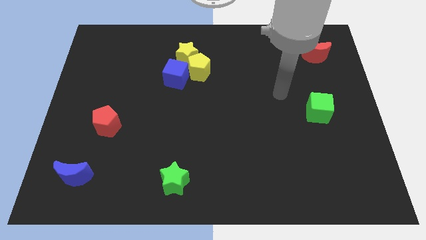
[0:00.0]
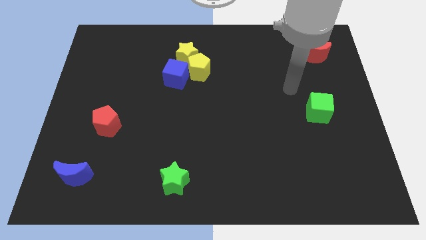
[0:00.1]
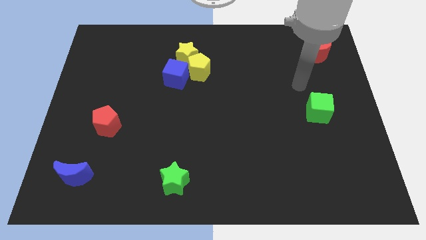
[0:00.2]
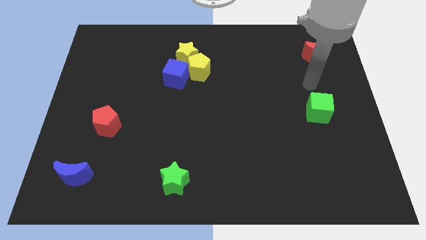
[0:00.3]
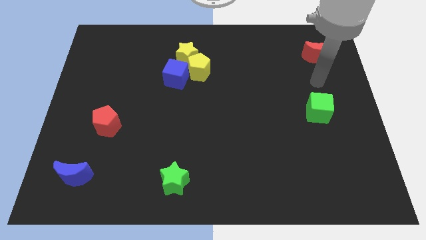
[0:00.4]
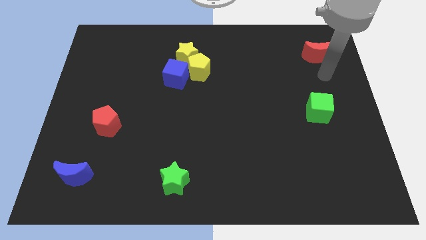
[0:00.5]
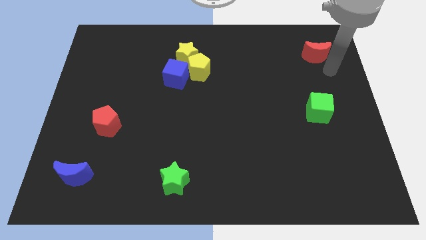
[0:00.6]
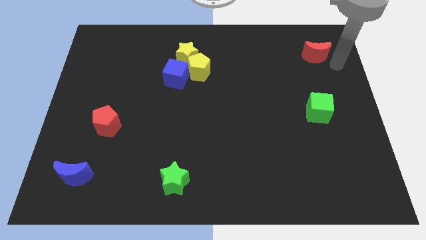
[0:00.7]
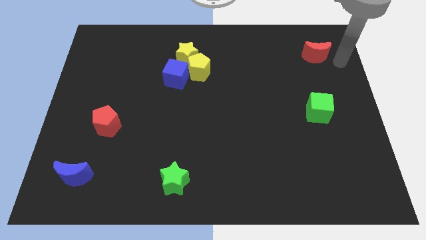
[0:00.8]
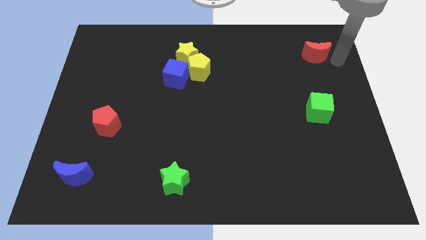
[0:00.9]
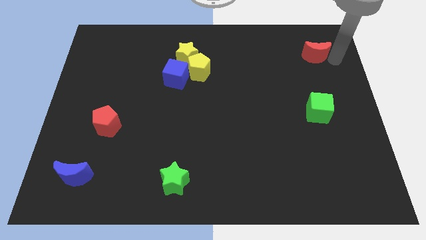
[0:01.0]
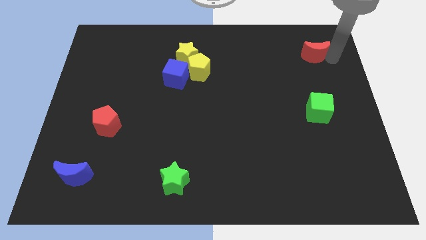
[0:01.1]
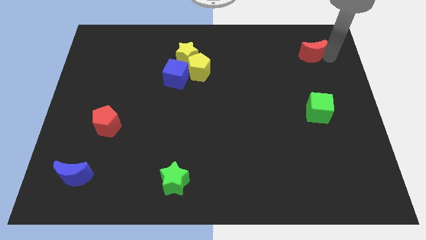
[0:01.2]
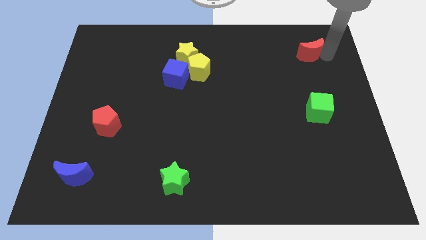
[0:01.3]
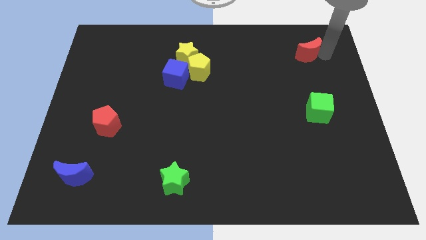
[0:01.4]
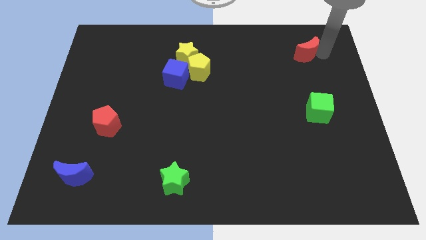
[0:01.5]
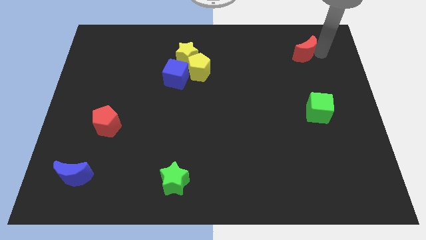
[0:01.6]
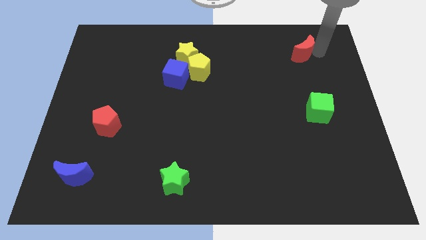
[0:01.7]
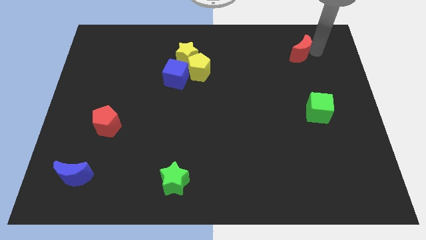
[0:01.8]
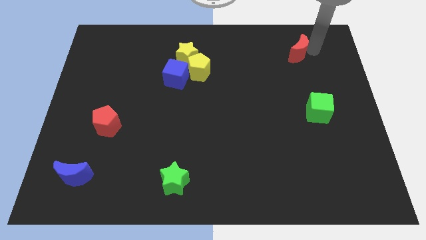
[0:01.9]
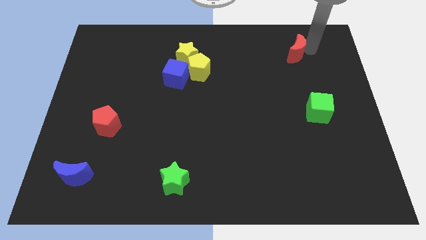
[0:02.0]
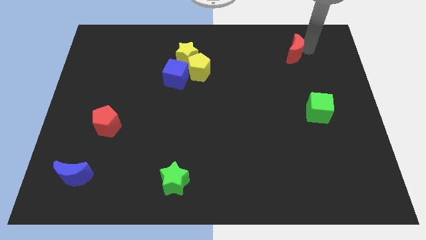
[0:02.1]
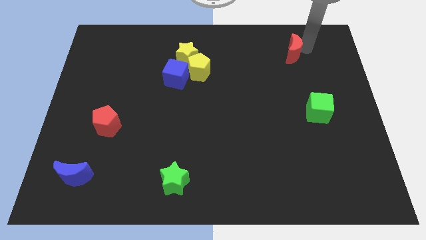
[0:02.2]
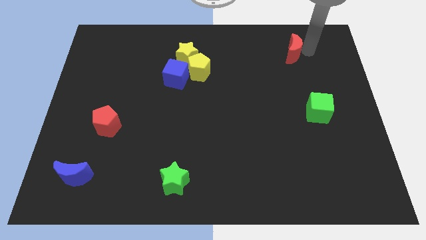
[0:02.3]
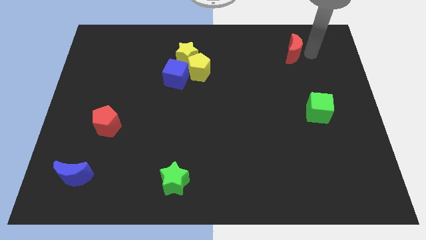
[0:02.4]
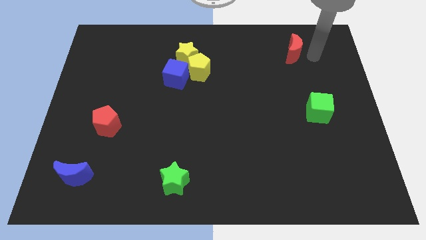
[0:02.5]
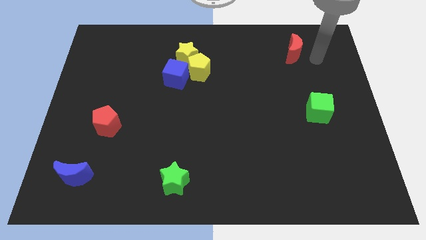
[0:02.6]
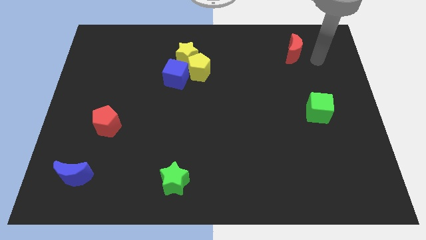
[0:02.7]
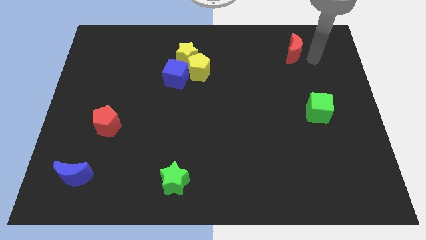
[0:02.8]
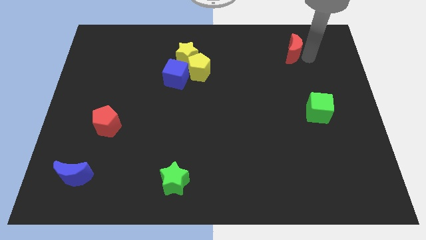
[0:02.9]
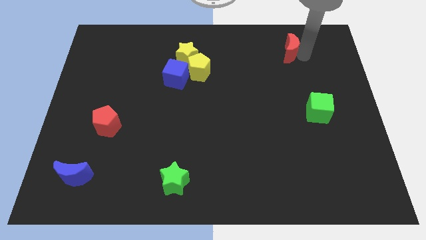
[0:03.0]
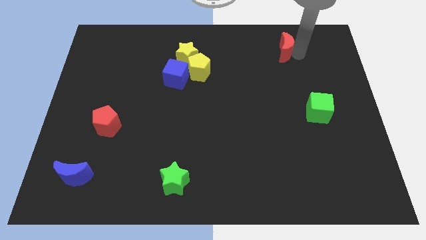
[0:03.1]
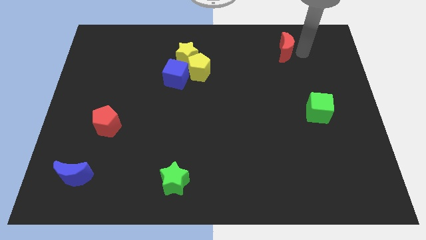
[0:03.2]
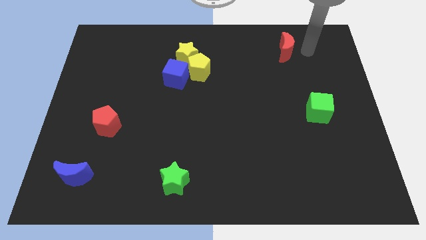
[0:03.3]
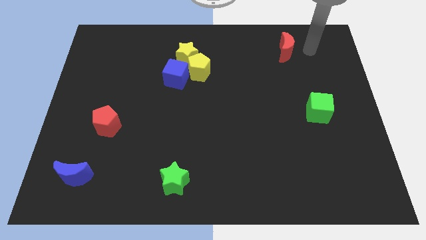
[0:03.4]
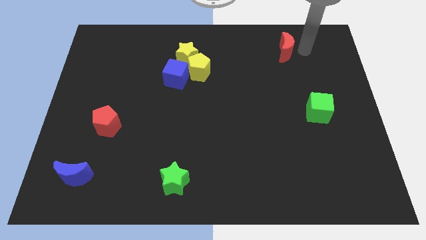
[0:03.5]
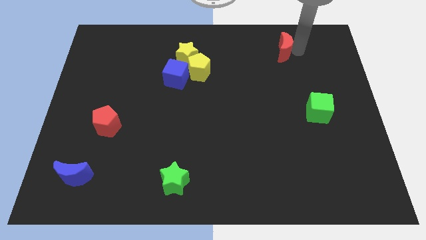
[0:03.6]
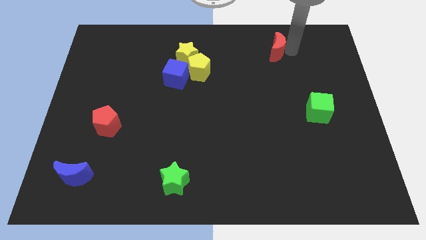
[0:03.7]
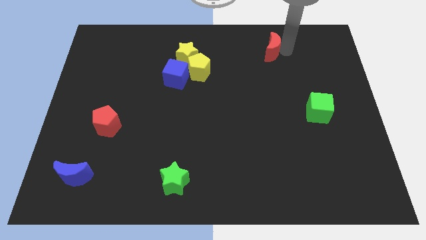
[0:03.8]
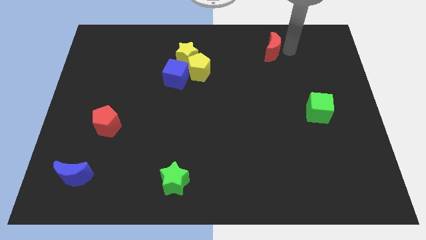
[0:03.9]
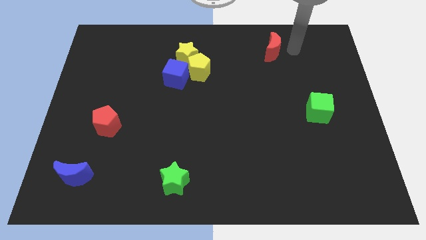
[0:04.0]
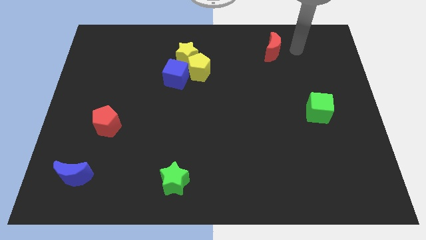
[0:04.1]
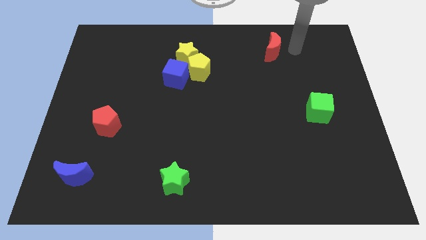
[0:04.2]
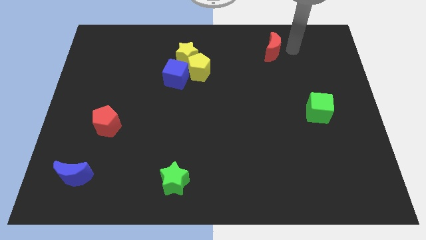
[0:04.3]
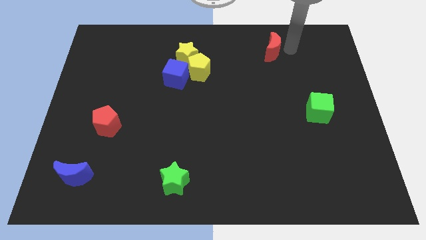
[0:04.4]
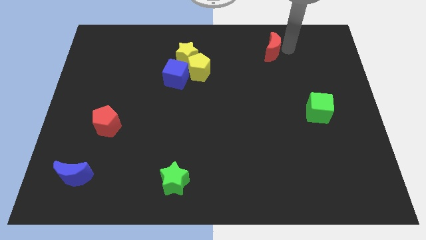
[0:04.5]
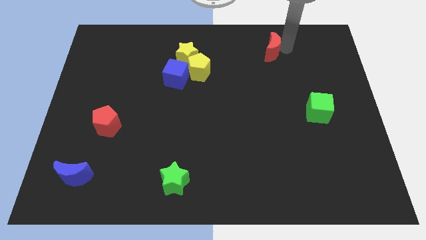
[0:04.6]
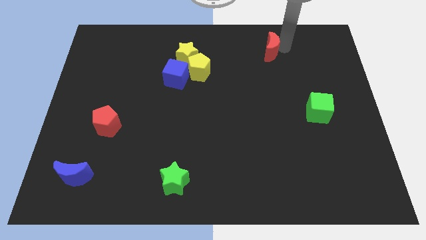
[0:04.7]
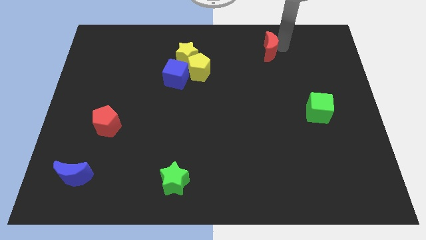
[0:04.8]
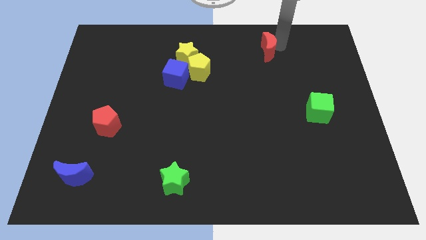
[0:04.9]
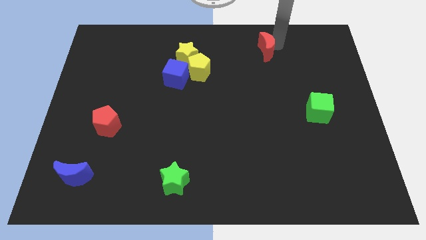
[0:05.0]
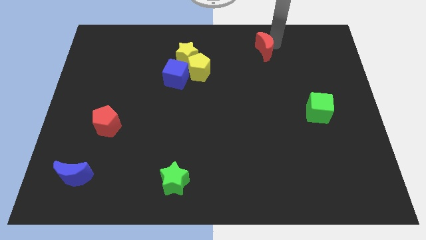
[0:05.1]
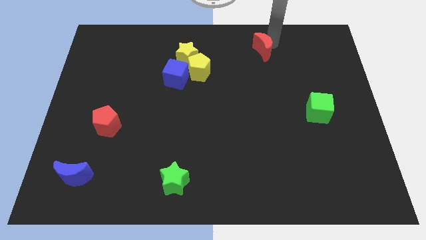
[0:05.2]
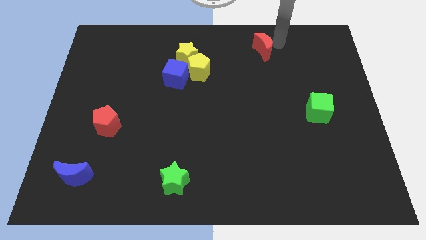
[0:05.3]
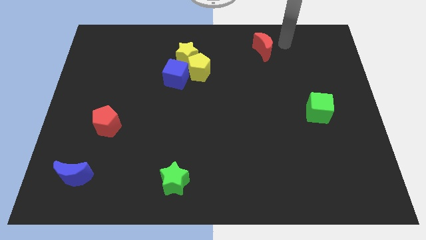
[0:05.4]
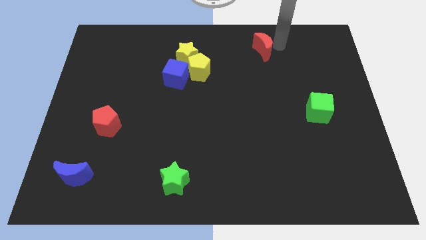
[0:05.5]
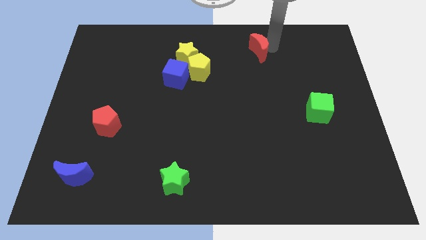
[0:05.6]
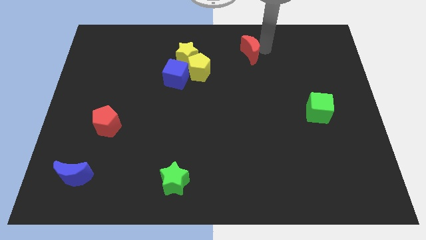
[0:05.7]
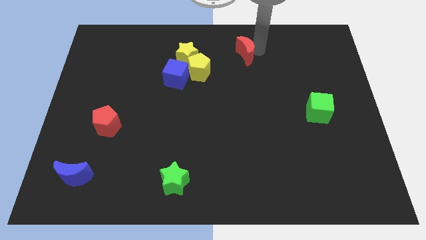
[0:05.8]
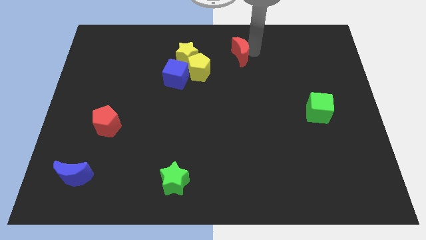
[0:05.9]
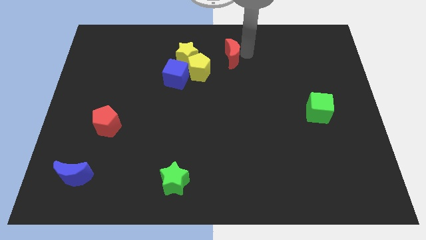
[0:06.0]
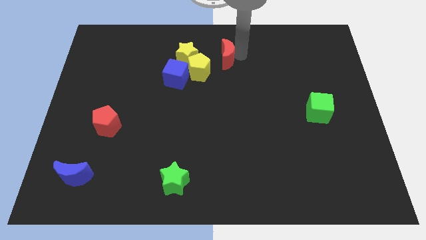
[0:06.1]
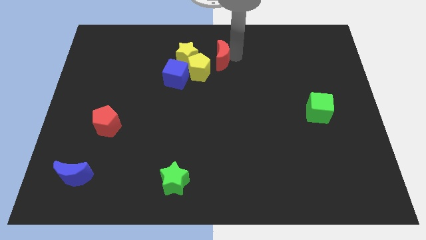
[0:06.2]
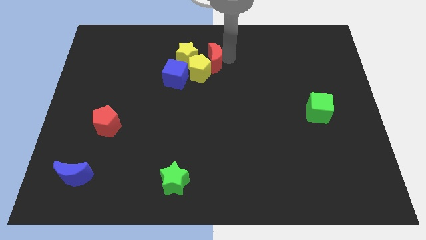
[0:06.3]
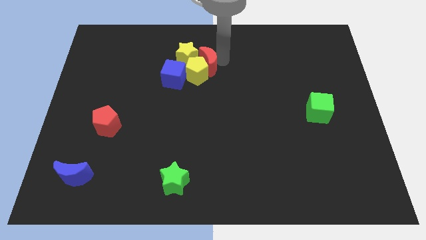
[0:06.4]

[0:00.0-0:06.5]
push the red moon next to the yellow star

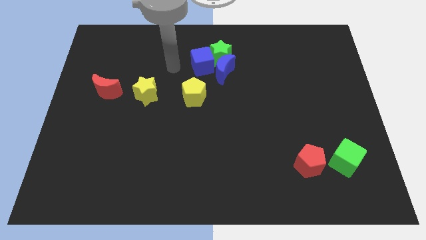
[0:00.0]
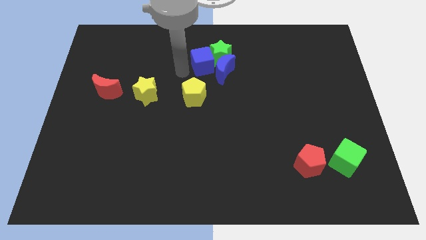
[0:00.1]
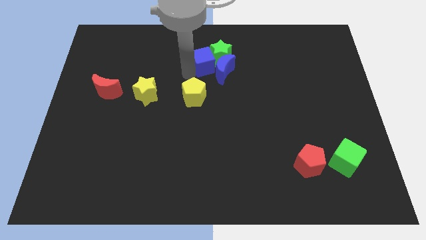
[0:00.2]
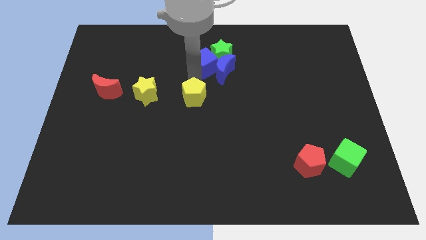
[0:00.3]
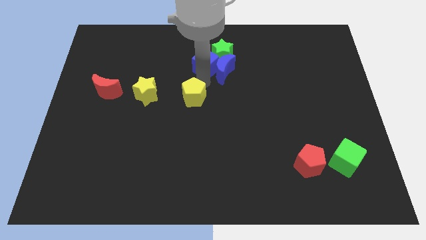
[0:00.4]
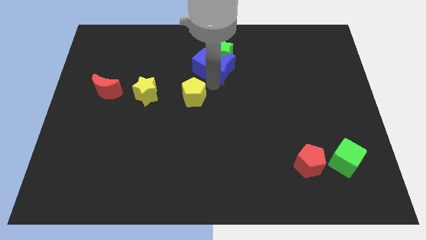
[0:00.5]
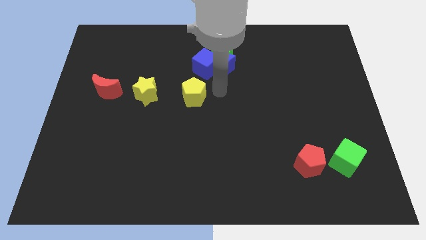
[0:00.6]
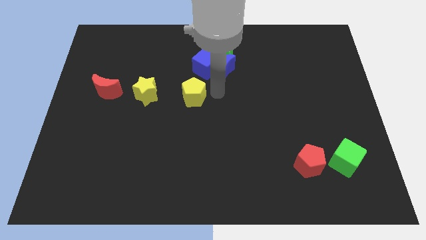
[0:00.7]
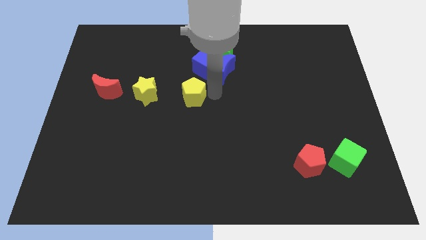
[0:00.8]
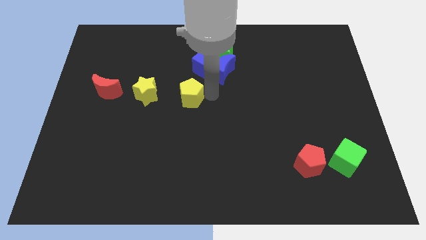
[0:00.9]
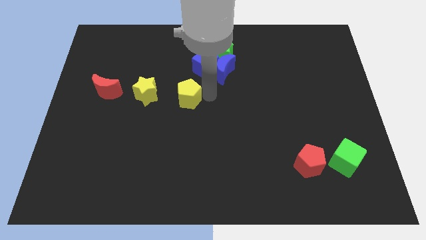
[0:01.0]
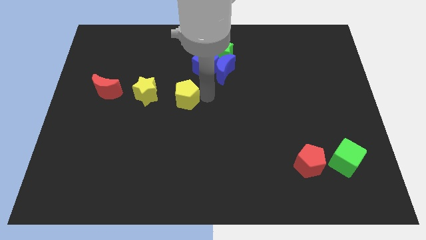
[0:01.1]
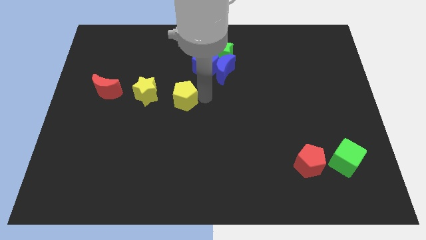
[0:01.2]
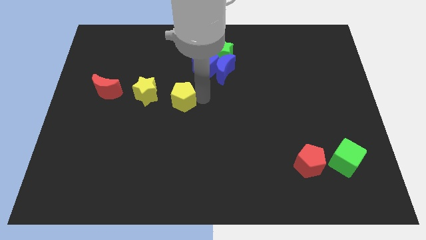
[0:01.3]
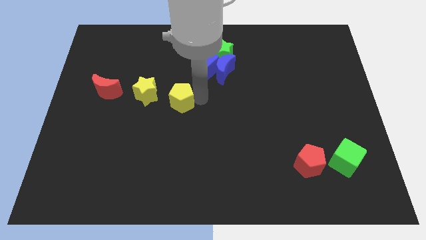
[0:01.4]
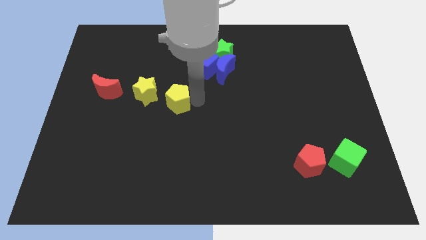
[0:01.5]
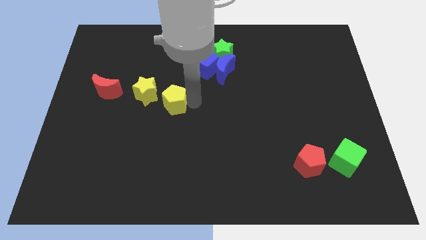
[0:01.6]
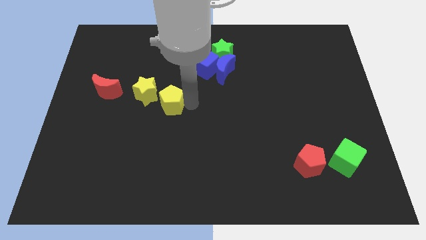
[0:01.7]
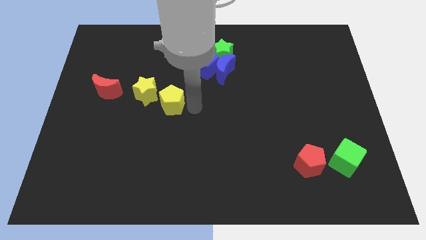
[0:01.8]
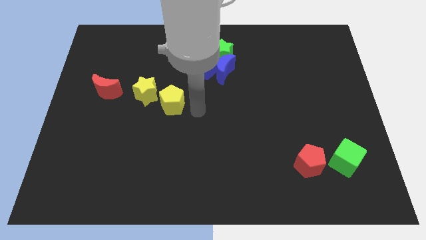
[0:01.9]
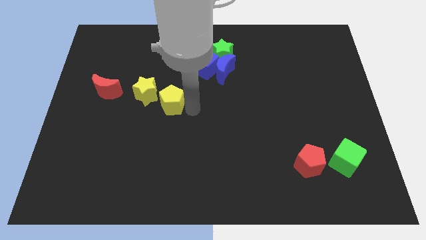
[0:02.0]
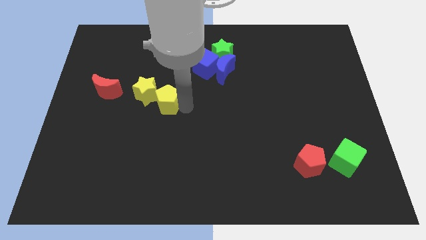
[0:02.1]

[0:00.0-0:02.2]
slide the yellow pentagon towards the yellow star
